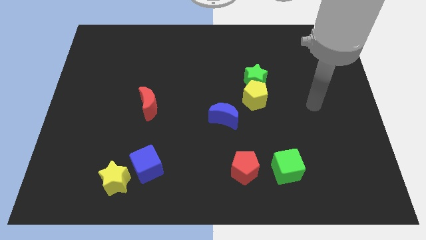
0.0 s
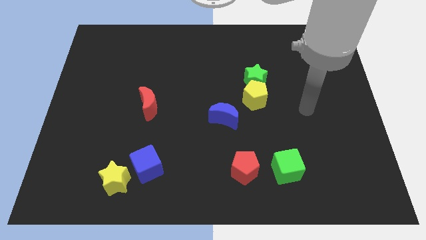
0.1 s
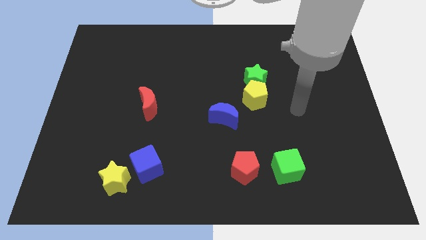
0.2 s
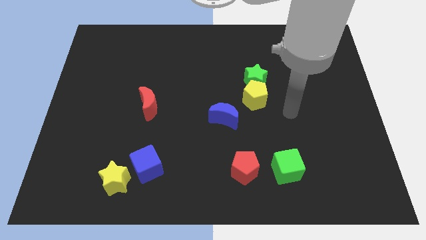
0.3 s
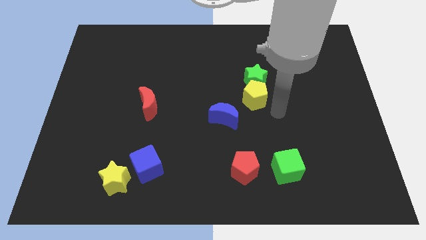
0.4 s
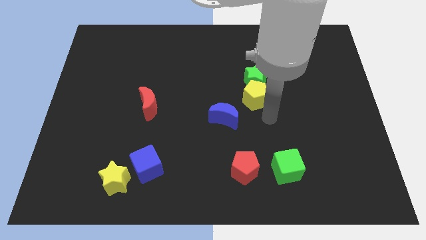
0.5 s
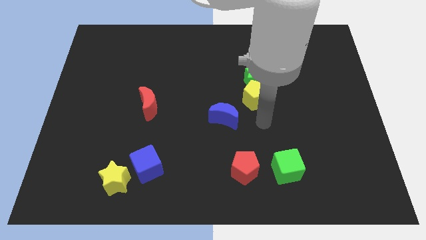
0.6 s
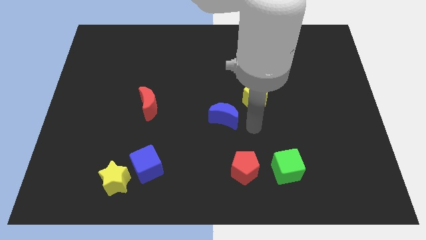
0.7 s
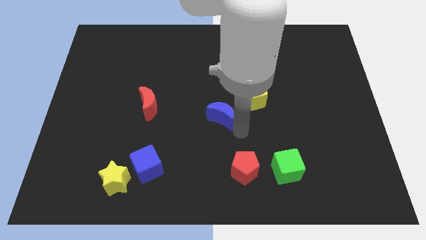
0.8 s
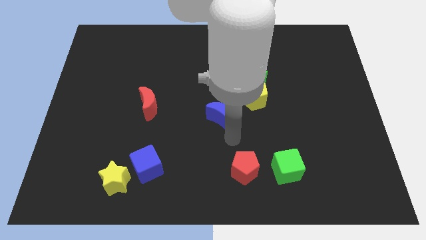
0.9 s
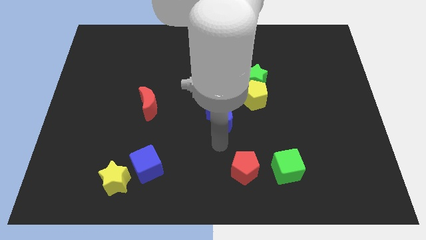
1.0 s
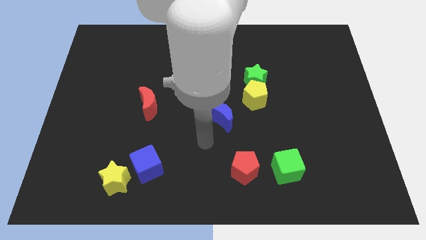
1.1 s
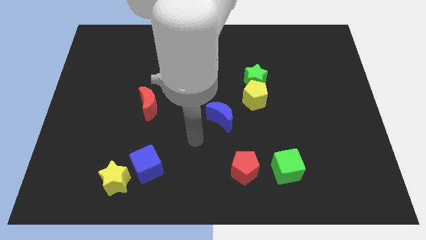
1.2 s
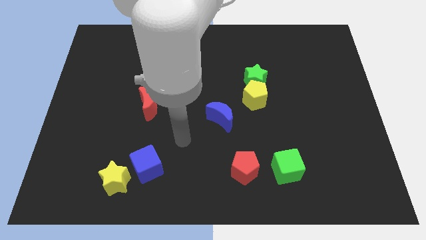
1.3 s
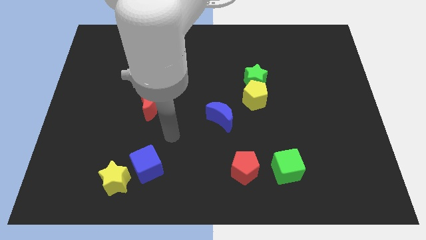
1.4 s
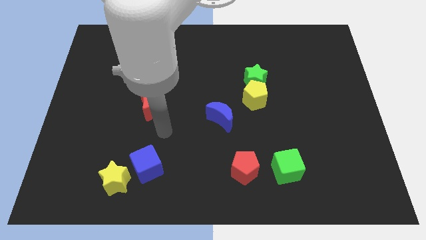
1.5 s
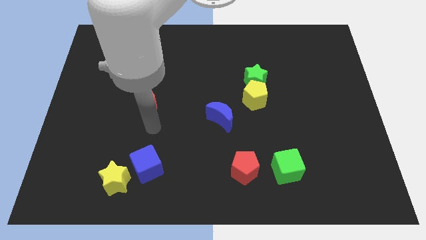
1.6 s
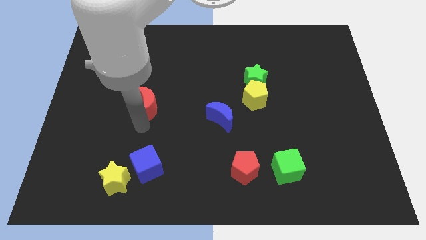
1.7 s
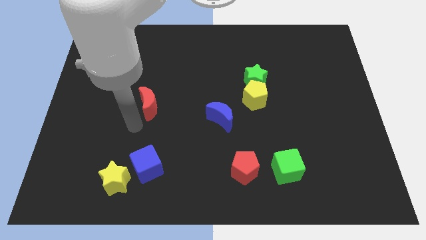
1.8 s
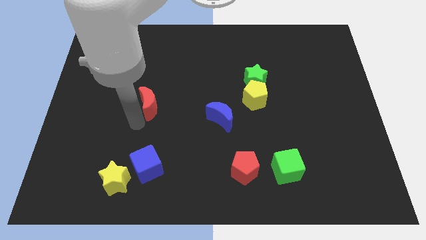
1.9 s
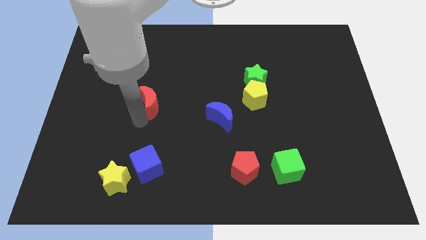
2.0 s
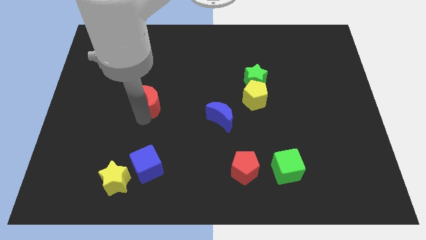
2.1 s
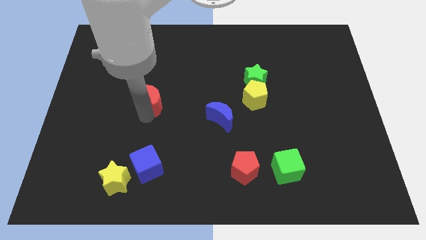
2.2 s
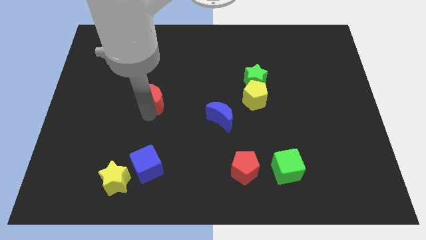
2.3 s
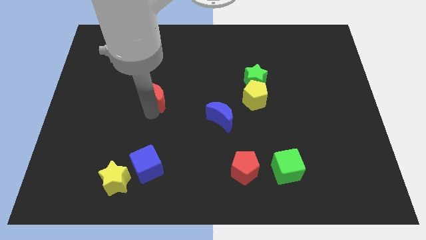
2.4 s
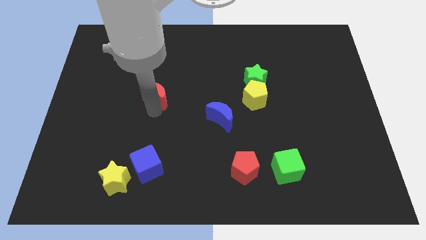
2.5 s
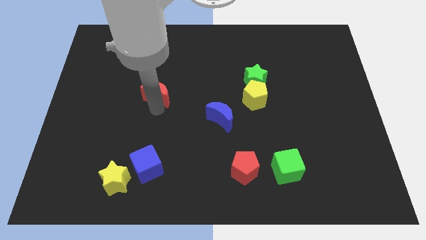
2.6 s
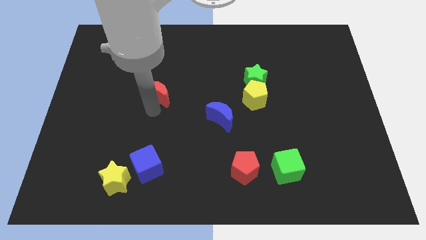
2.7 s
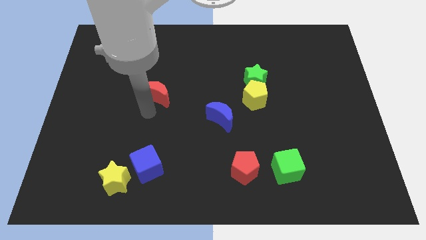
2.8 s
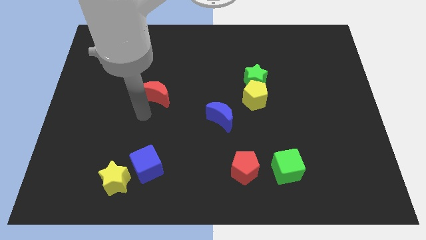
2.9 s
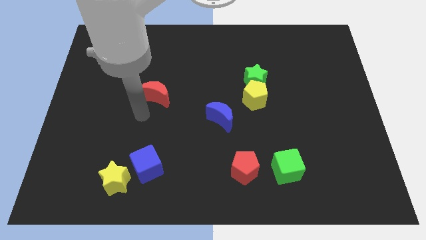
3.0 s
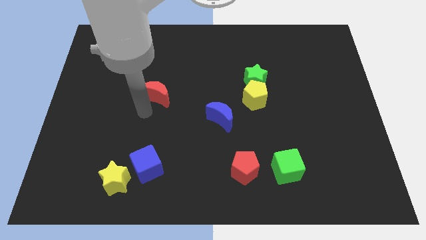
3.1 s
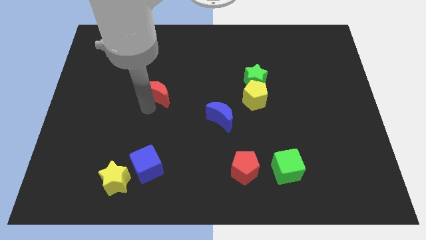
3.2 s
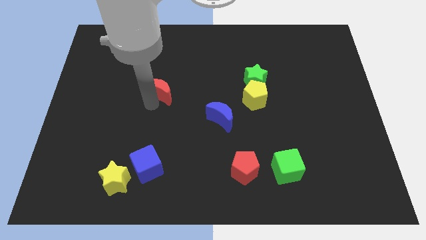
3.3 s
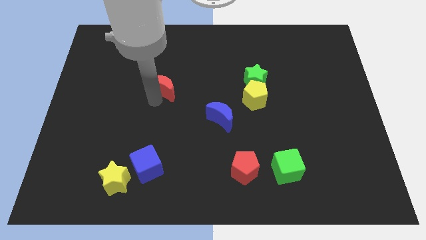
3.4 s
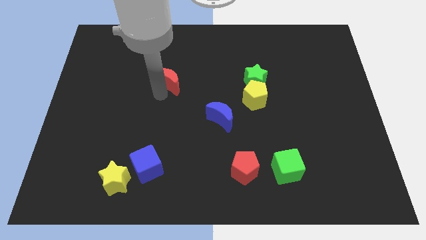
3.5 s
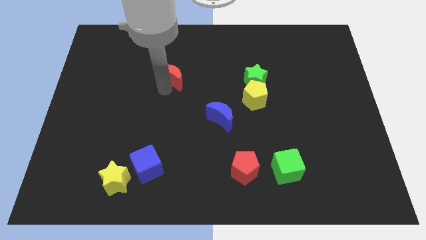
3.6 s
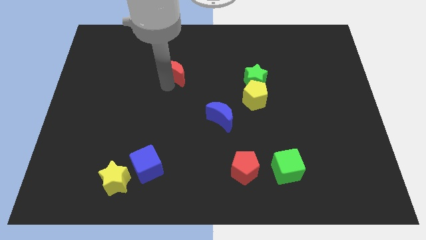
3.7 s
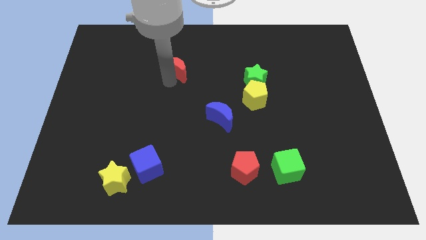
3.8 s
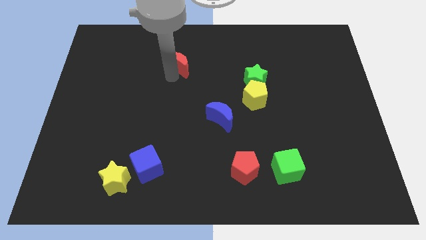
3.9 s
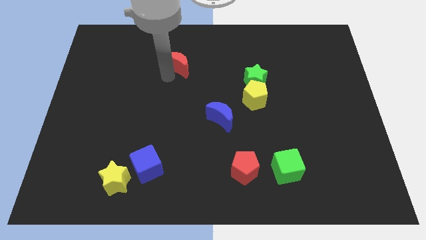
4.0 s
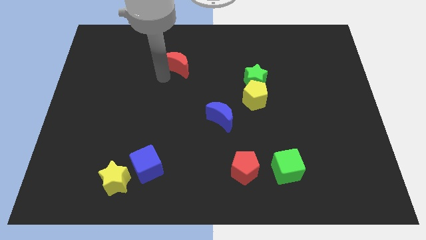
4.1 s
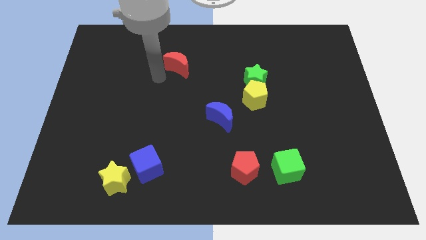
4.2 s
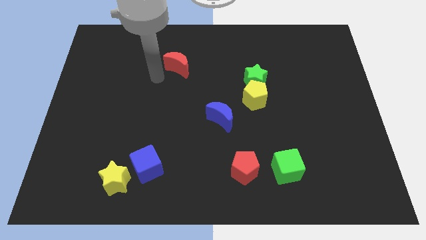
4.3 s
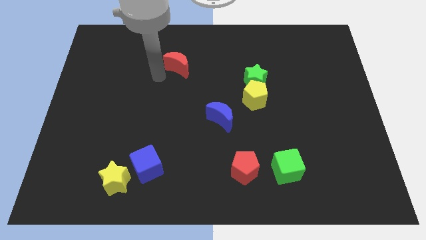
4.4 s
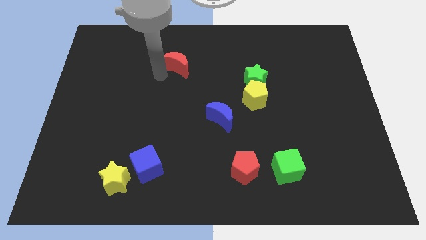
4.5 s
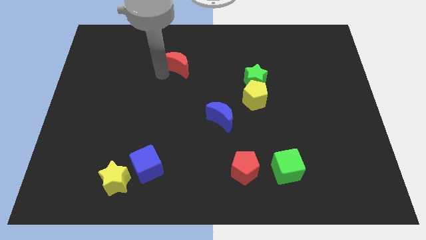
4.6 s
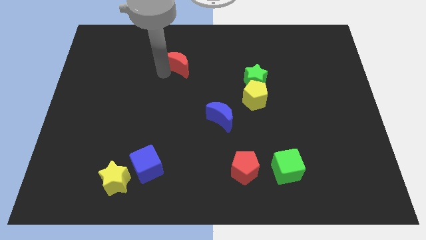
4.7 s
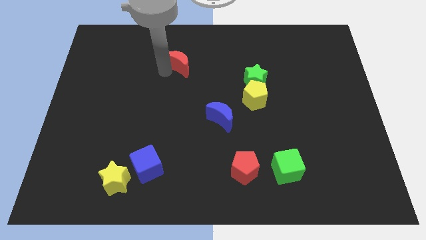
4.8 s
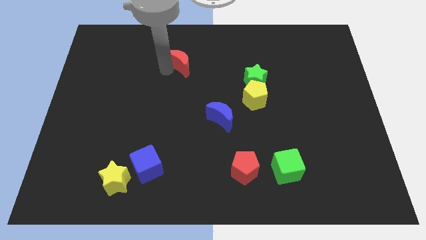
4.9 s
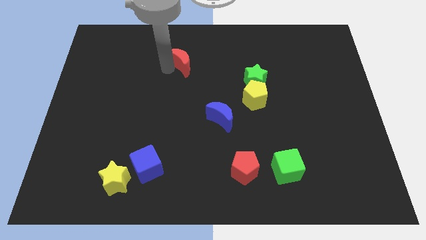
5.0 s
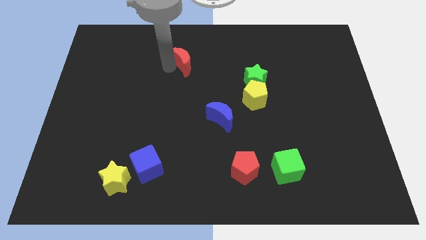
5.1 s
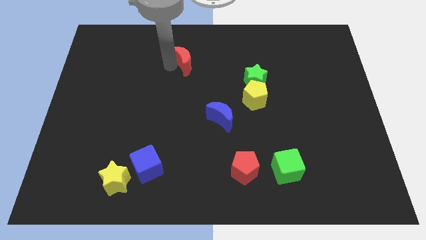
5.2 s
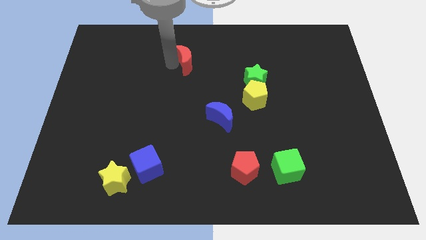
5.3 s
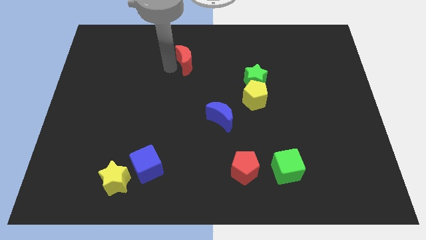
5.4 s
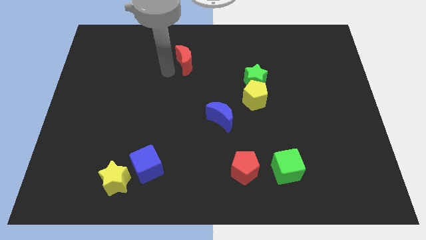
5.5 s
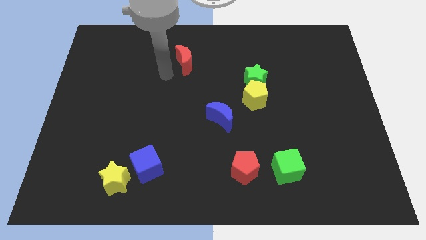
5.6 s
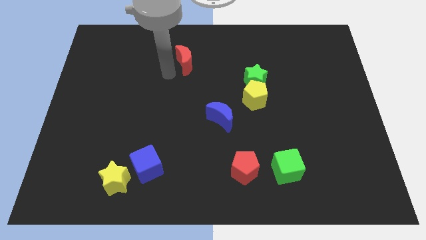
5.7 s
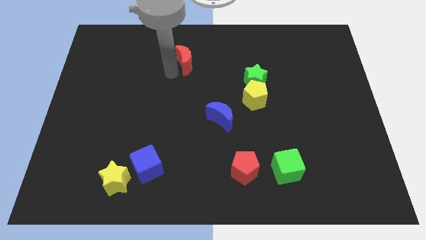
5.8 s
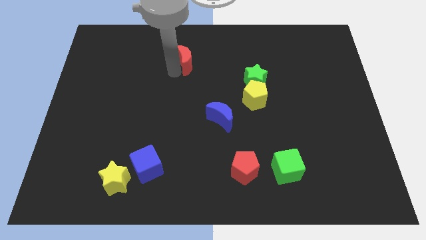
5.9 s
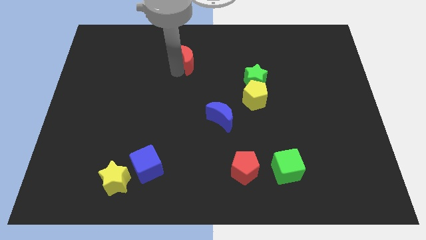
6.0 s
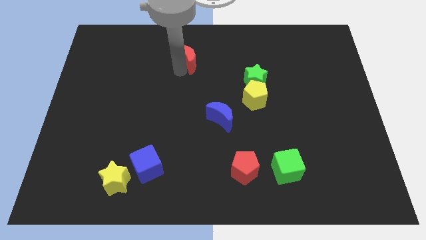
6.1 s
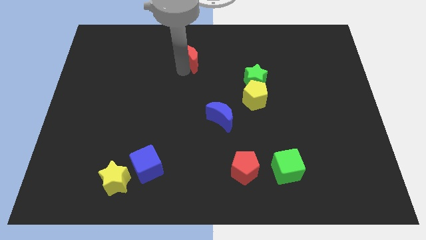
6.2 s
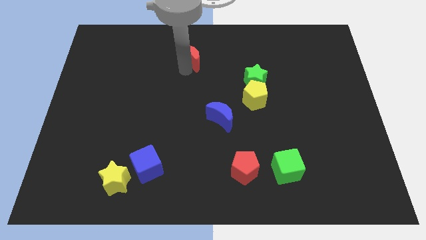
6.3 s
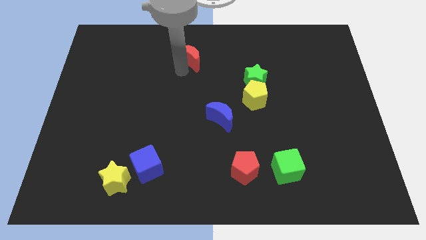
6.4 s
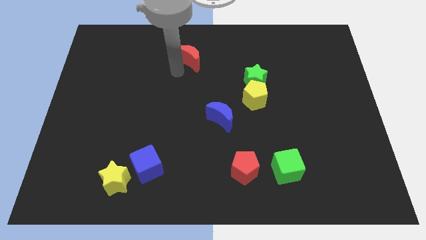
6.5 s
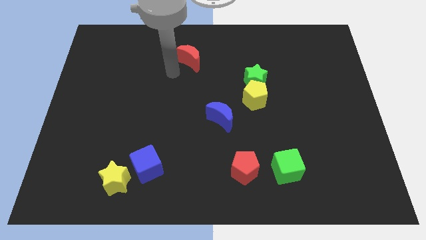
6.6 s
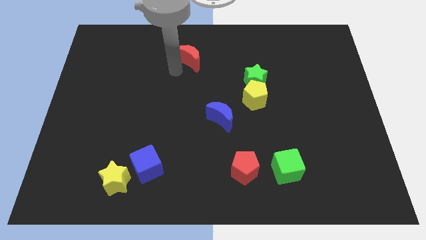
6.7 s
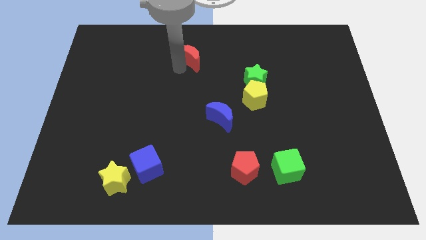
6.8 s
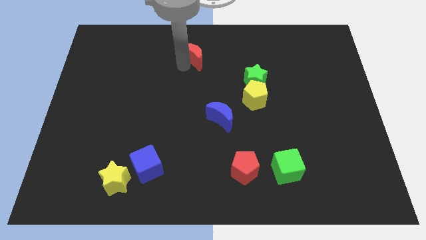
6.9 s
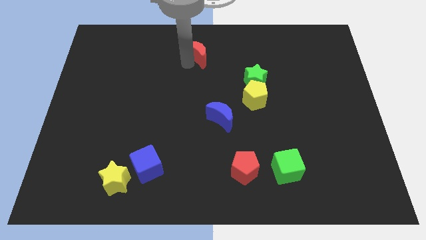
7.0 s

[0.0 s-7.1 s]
push the red moon to the towards your base
